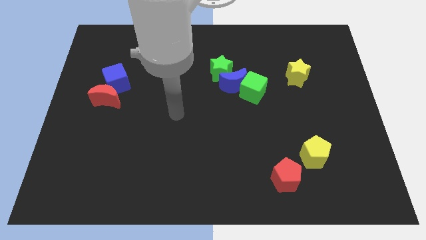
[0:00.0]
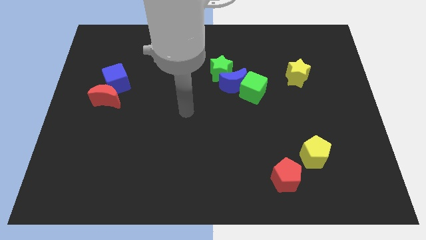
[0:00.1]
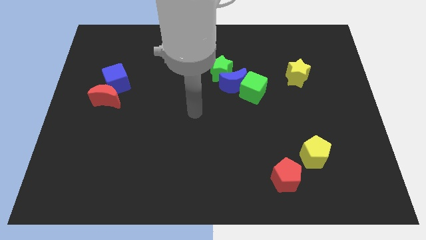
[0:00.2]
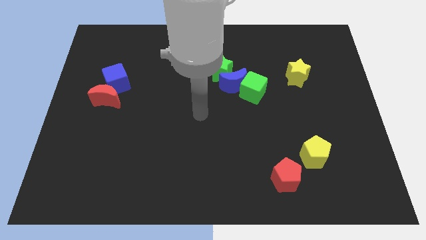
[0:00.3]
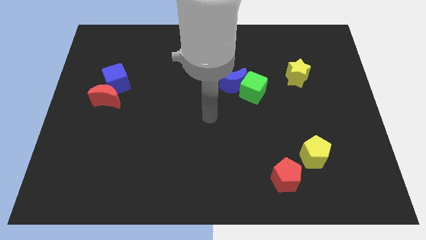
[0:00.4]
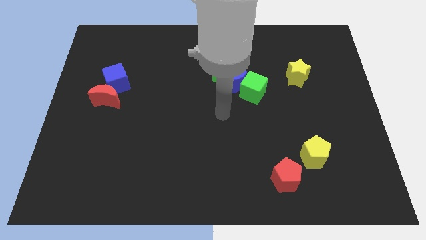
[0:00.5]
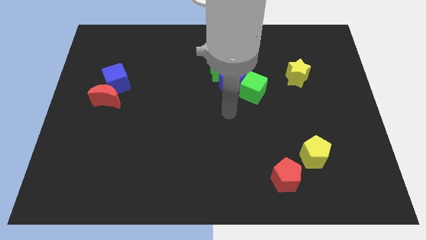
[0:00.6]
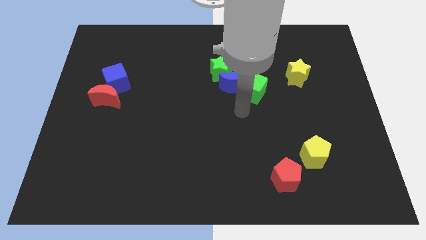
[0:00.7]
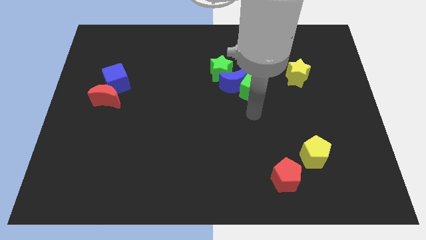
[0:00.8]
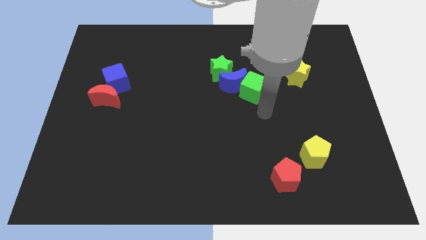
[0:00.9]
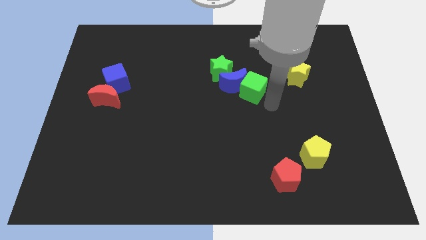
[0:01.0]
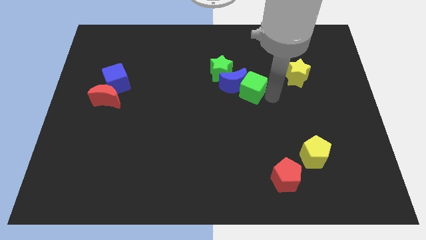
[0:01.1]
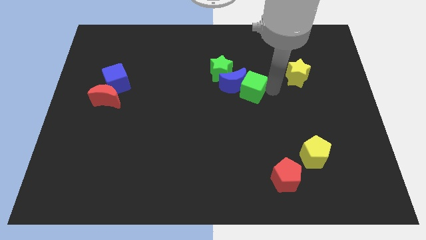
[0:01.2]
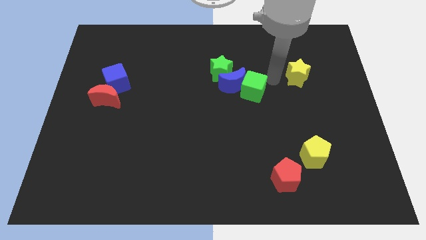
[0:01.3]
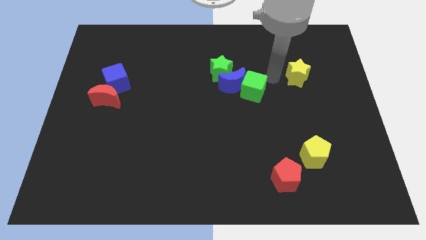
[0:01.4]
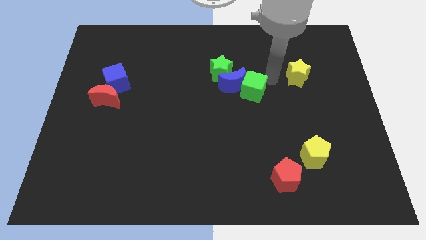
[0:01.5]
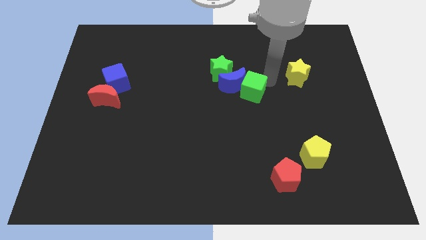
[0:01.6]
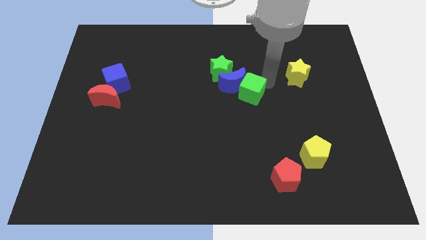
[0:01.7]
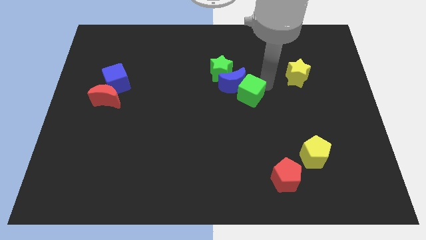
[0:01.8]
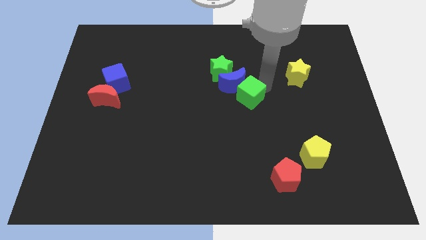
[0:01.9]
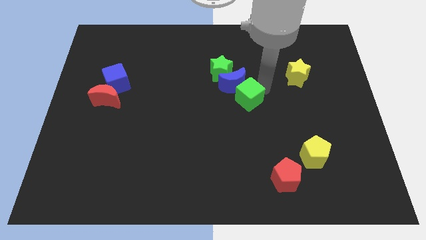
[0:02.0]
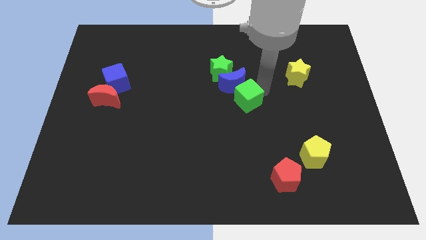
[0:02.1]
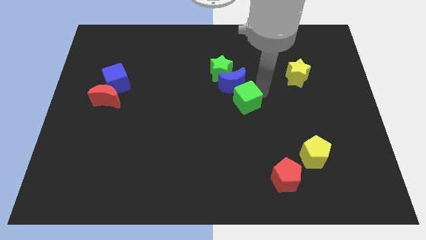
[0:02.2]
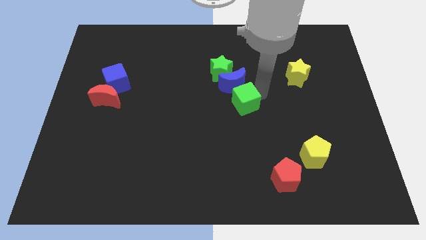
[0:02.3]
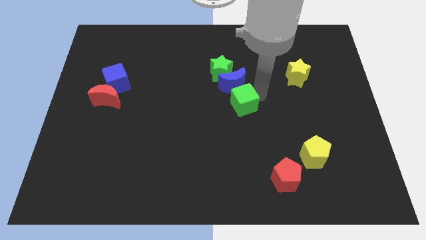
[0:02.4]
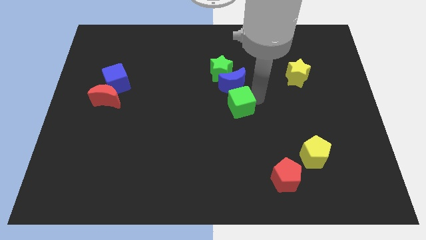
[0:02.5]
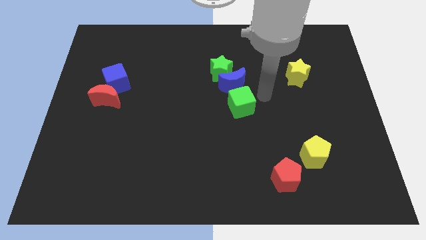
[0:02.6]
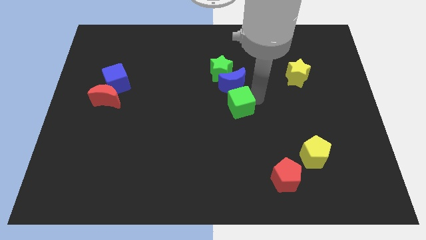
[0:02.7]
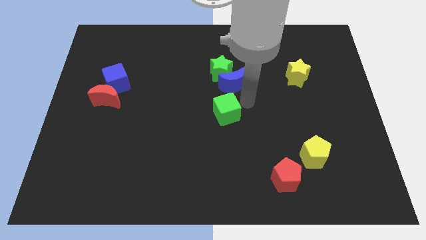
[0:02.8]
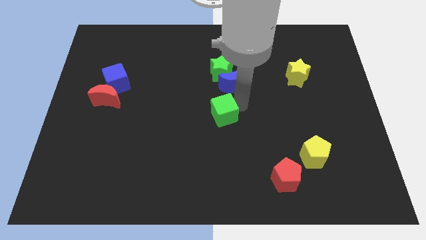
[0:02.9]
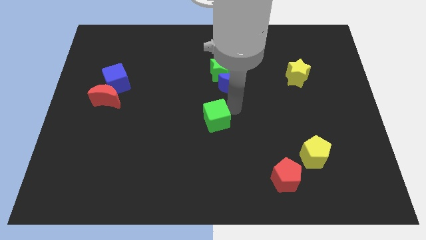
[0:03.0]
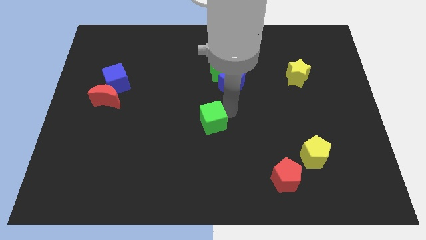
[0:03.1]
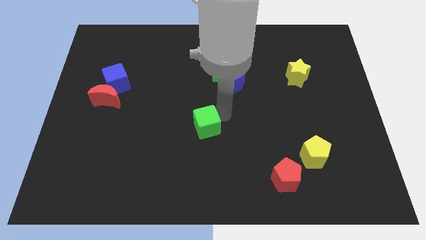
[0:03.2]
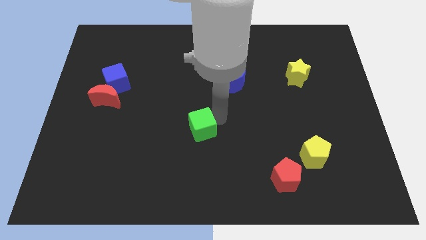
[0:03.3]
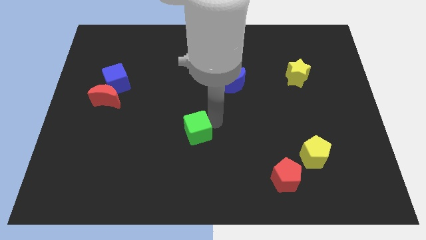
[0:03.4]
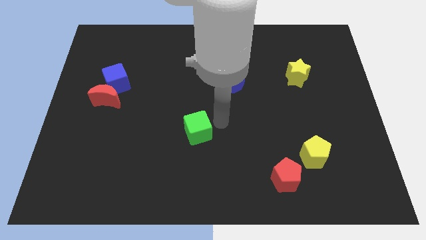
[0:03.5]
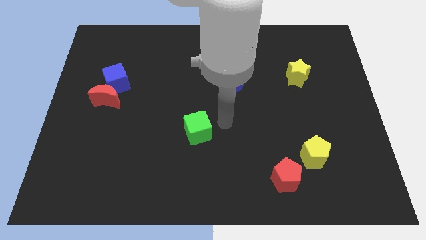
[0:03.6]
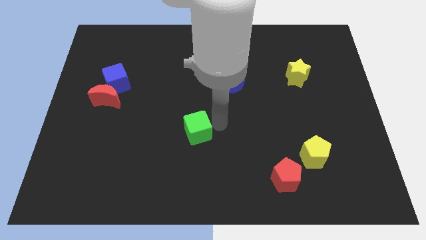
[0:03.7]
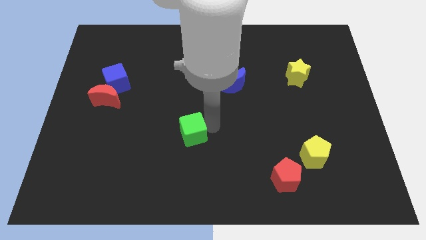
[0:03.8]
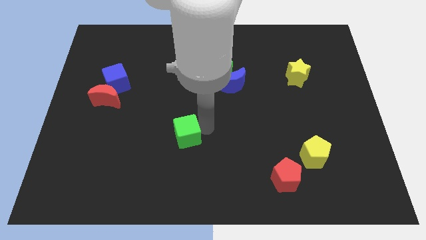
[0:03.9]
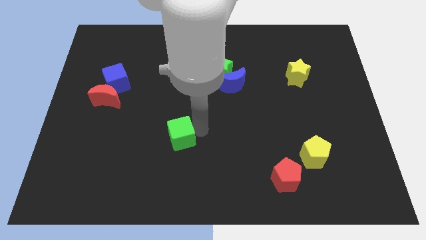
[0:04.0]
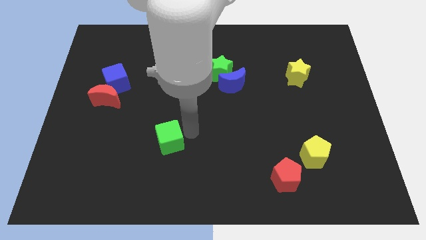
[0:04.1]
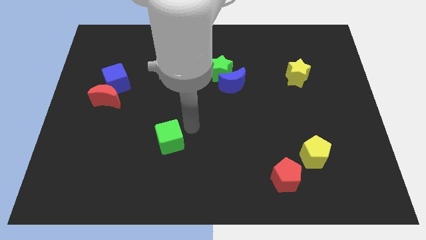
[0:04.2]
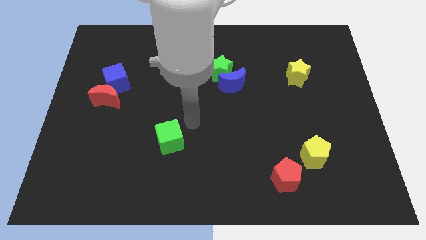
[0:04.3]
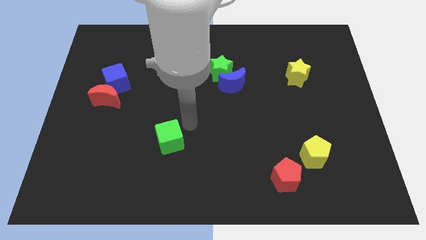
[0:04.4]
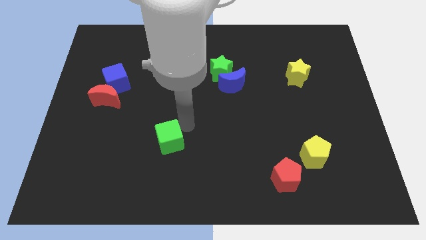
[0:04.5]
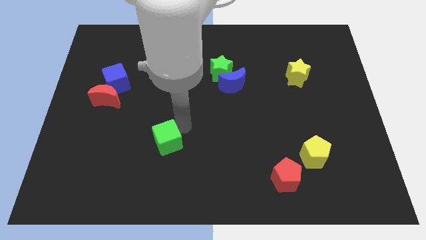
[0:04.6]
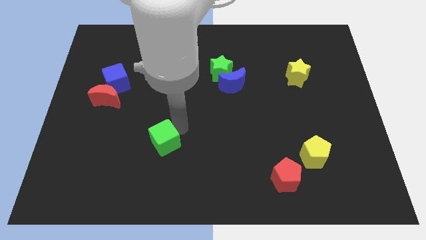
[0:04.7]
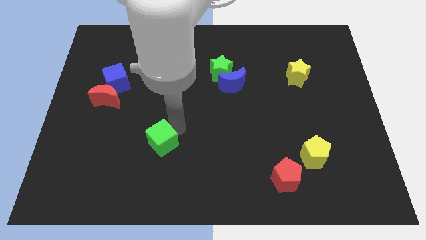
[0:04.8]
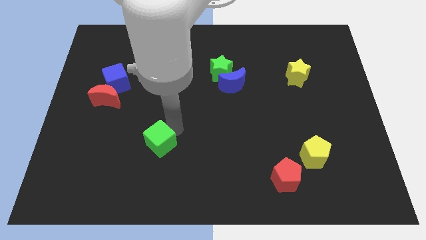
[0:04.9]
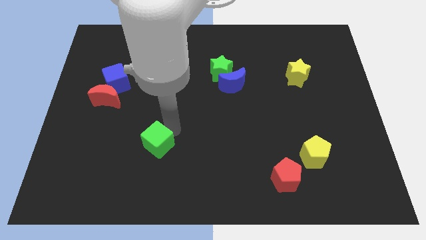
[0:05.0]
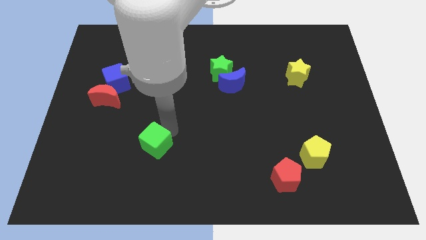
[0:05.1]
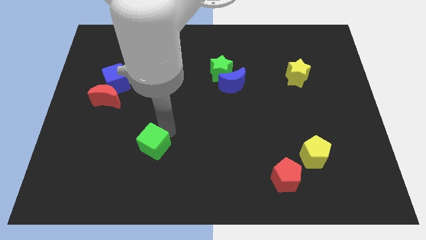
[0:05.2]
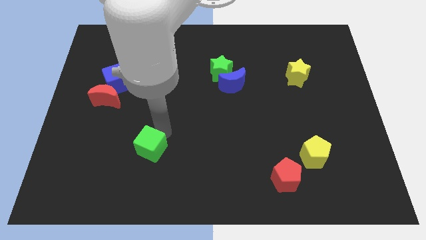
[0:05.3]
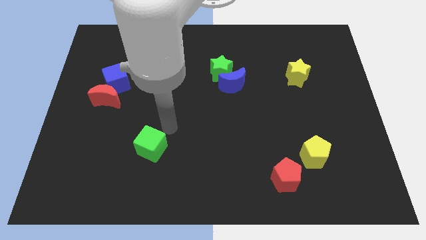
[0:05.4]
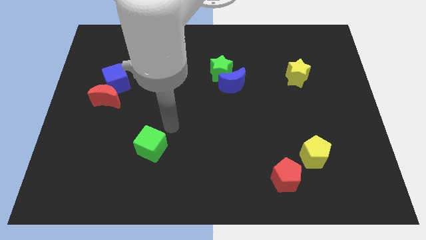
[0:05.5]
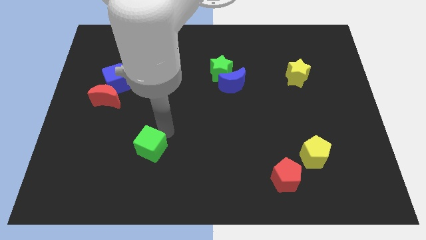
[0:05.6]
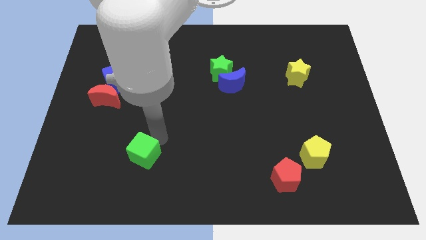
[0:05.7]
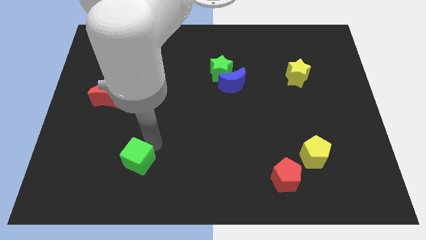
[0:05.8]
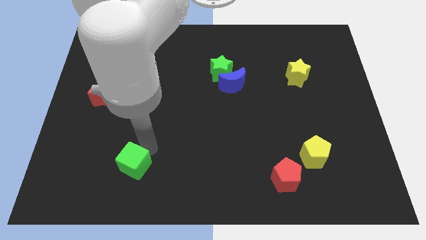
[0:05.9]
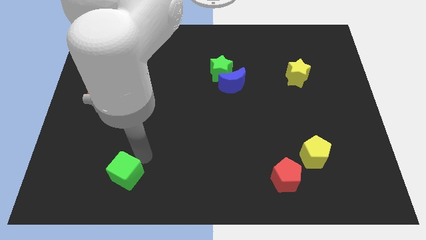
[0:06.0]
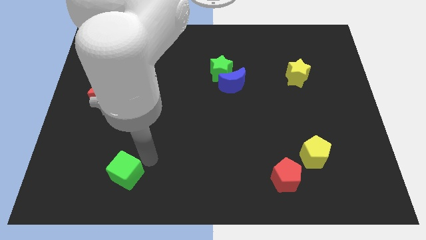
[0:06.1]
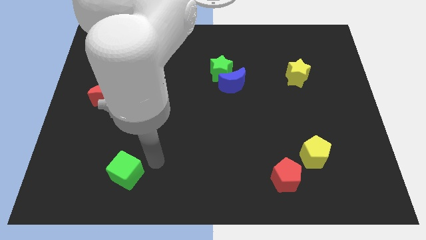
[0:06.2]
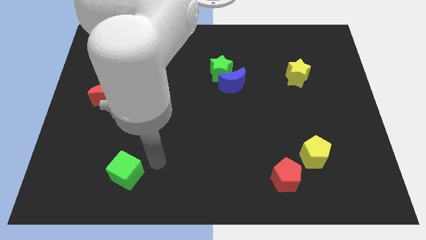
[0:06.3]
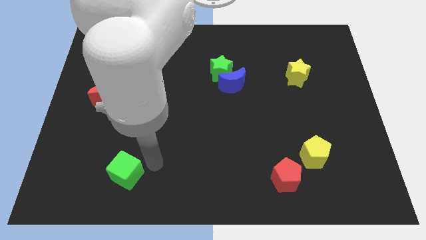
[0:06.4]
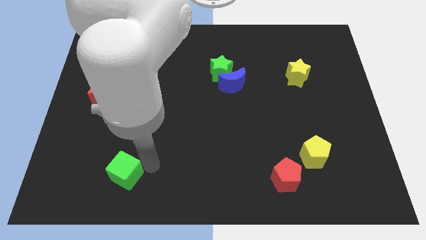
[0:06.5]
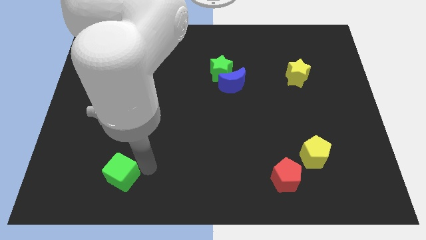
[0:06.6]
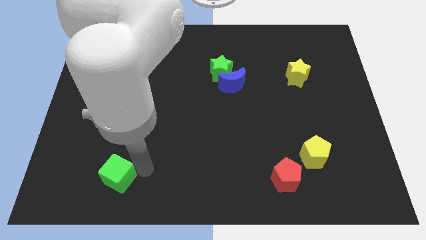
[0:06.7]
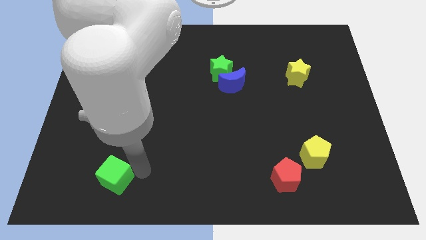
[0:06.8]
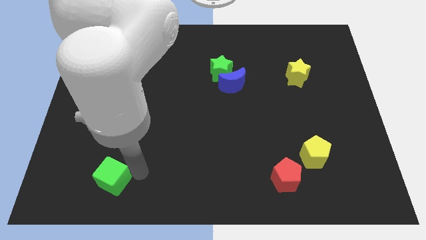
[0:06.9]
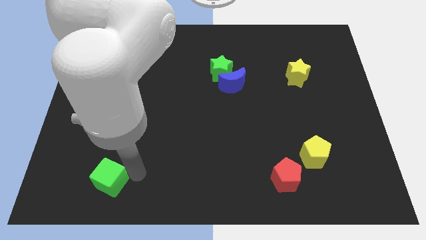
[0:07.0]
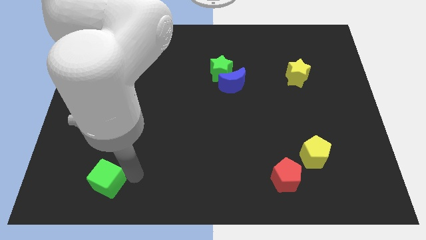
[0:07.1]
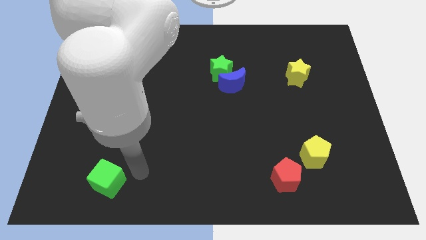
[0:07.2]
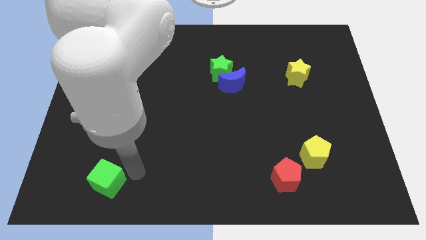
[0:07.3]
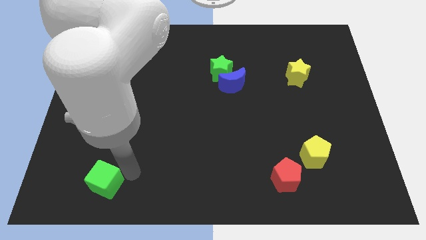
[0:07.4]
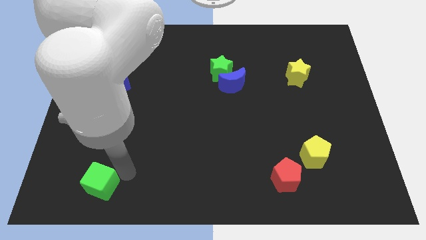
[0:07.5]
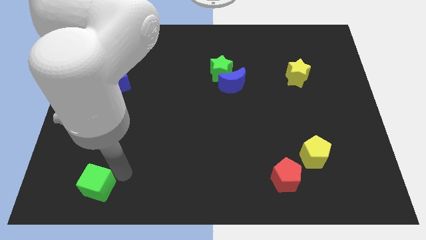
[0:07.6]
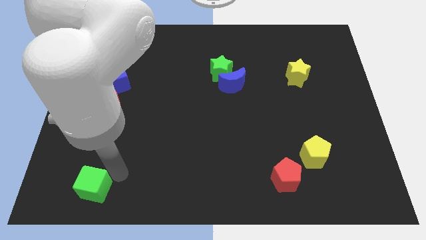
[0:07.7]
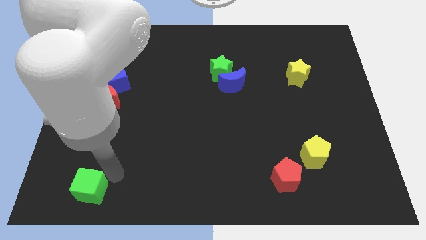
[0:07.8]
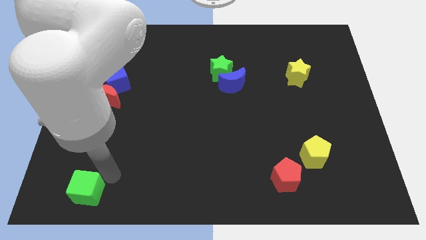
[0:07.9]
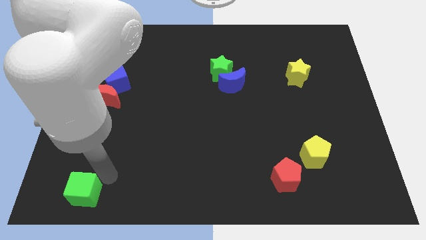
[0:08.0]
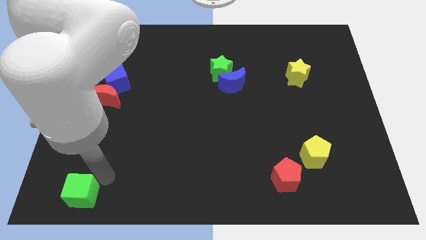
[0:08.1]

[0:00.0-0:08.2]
push the green cube to the bottom left
